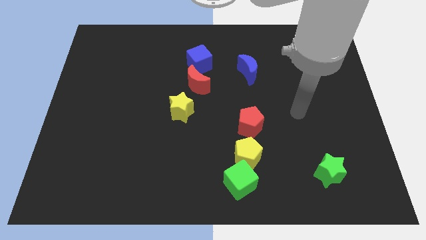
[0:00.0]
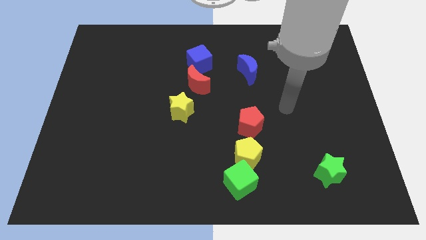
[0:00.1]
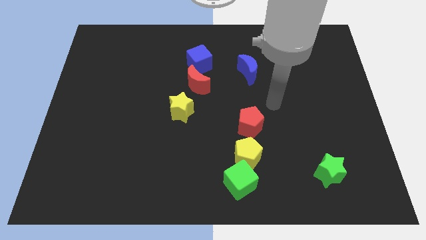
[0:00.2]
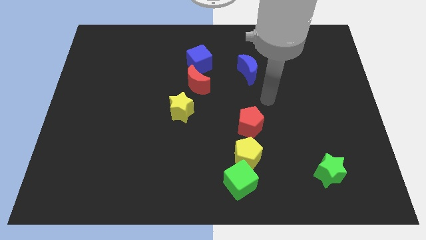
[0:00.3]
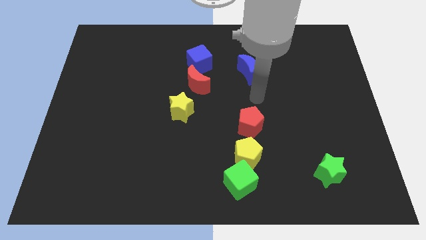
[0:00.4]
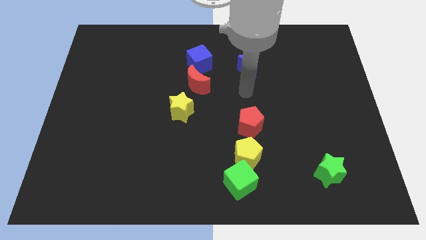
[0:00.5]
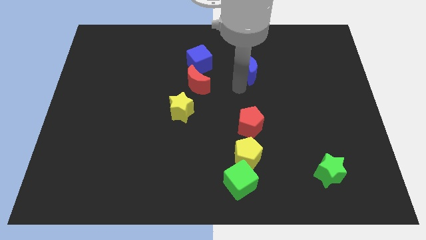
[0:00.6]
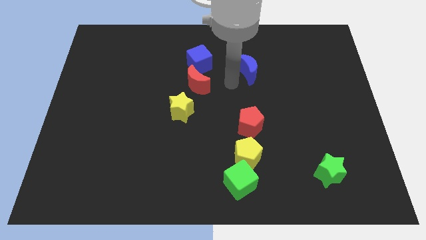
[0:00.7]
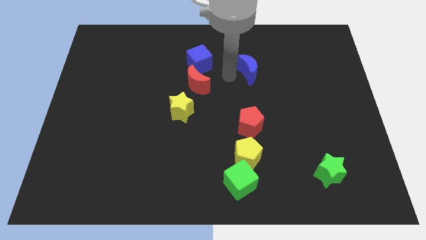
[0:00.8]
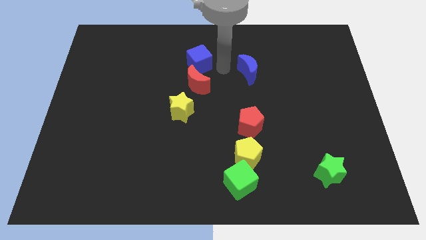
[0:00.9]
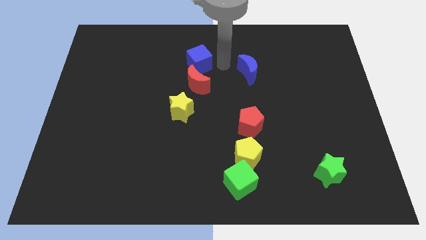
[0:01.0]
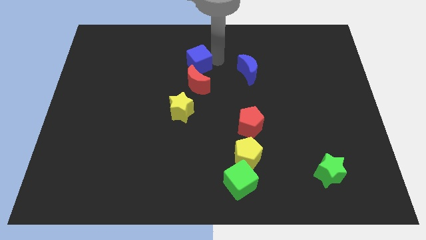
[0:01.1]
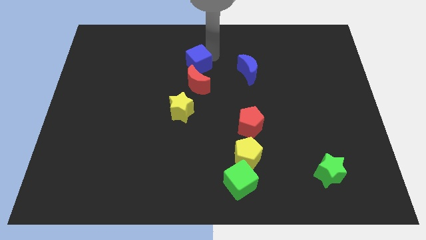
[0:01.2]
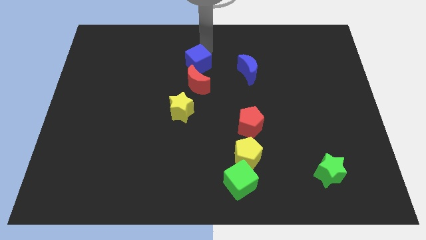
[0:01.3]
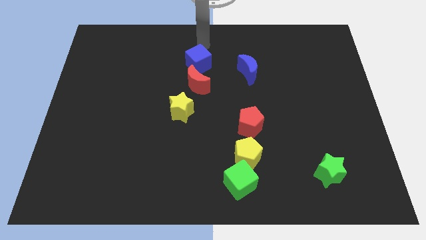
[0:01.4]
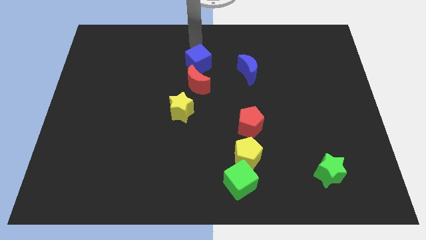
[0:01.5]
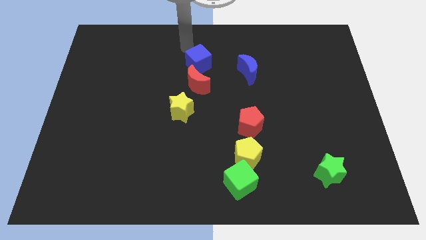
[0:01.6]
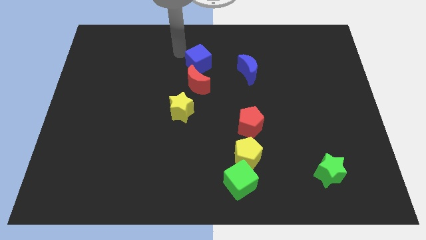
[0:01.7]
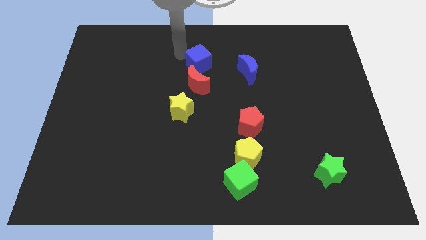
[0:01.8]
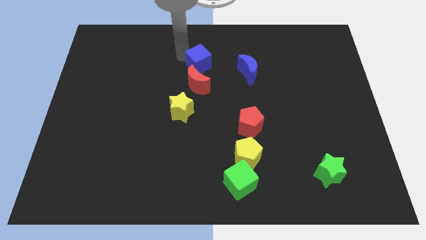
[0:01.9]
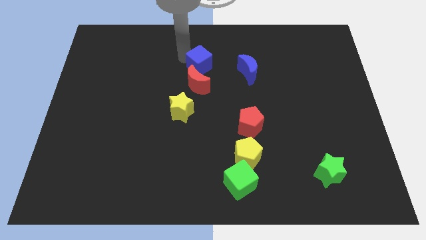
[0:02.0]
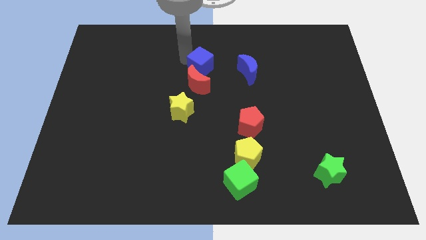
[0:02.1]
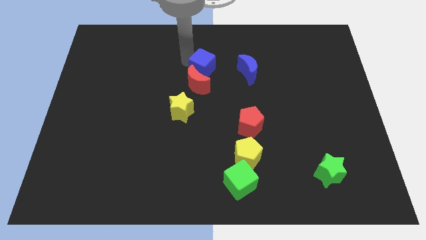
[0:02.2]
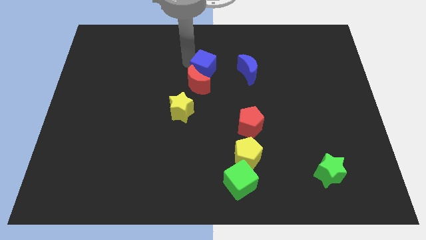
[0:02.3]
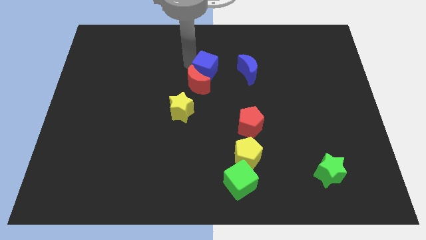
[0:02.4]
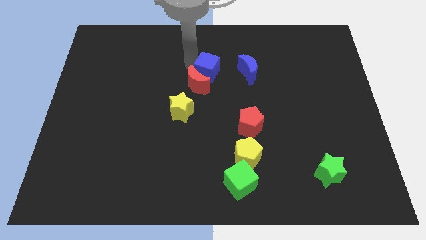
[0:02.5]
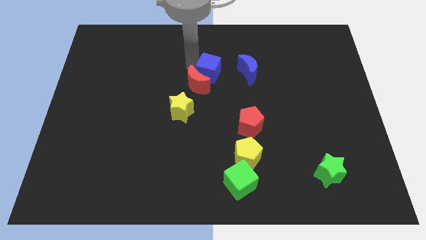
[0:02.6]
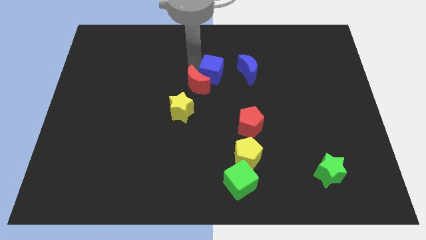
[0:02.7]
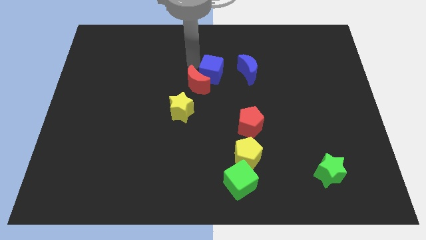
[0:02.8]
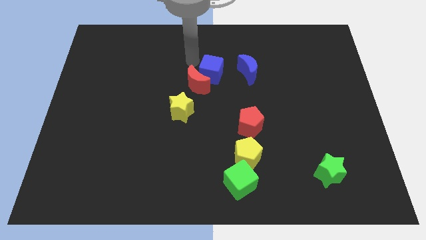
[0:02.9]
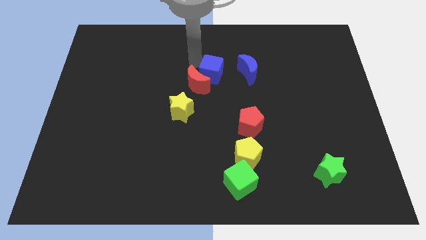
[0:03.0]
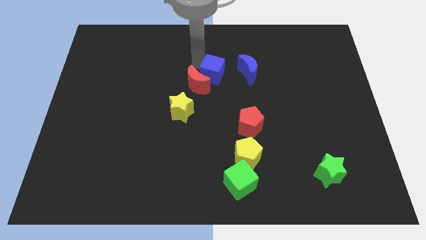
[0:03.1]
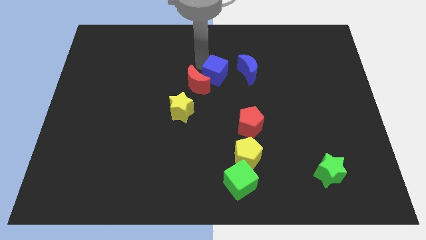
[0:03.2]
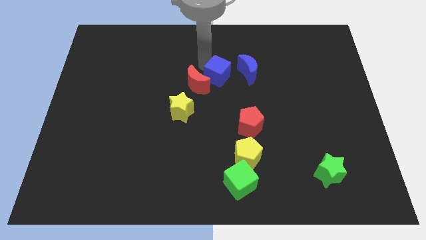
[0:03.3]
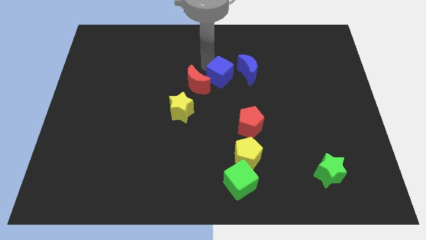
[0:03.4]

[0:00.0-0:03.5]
slide the blue cube diagonally down and to the right a little bit

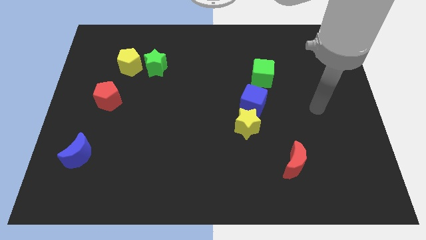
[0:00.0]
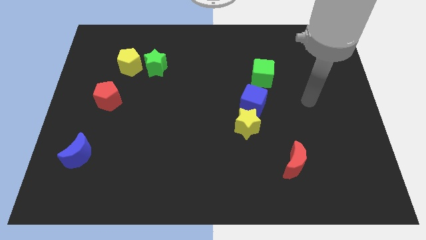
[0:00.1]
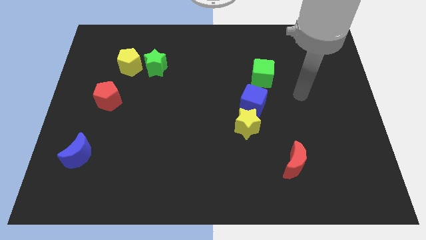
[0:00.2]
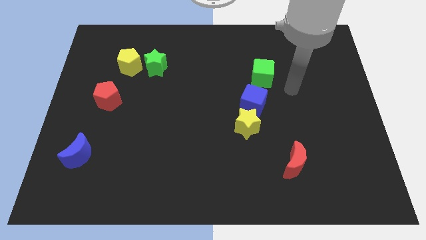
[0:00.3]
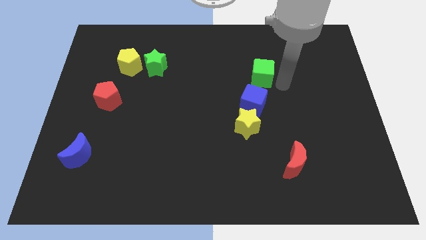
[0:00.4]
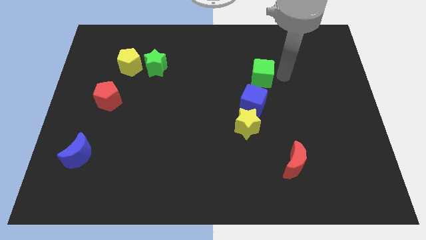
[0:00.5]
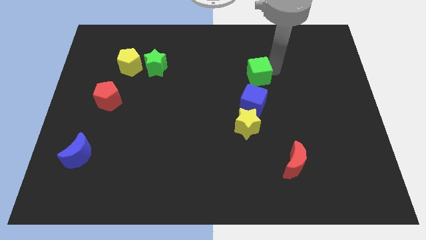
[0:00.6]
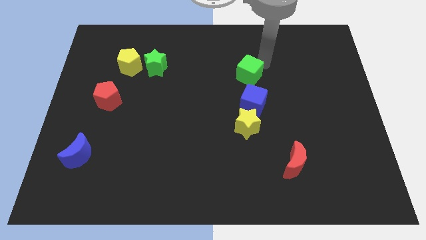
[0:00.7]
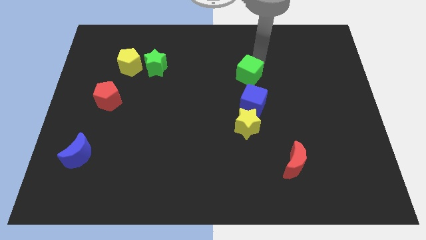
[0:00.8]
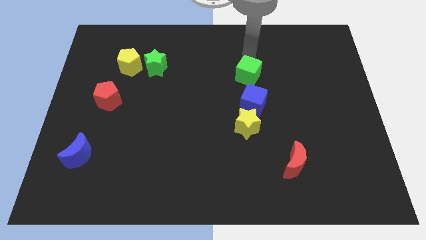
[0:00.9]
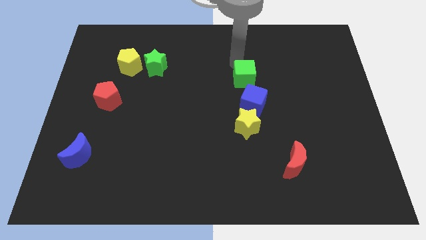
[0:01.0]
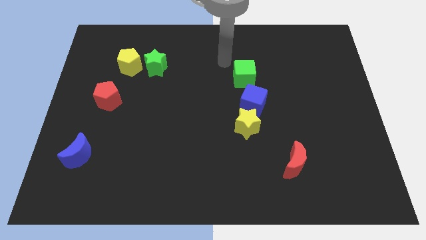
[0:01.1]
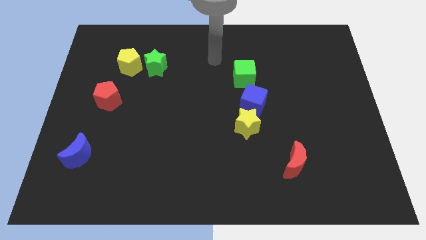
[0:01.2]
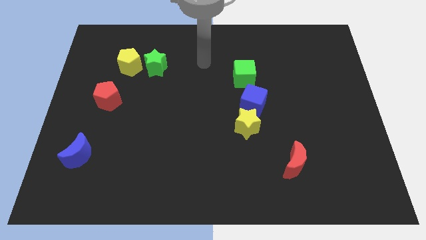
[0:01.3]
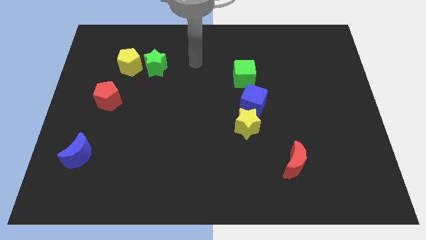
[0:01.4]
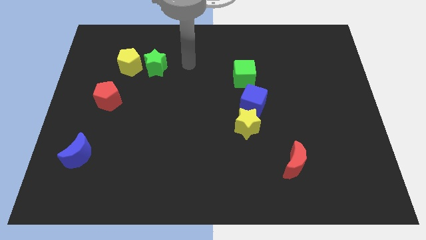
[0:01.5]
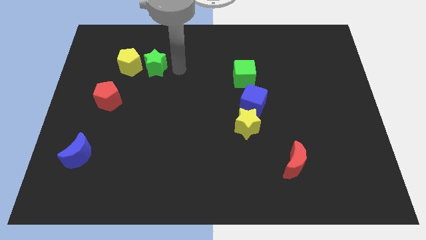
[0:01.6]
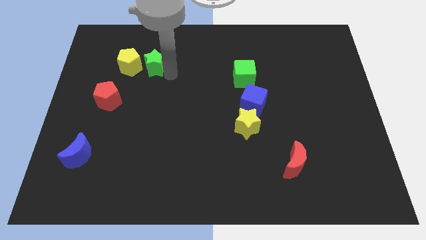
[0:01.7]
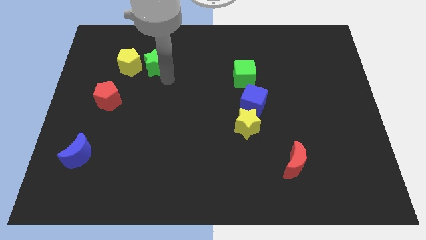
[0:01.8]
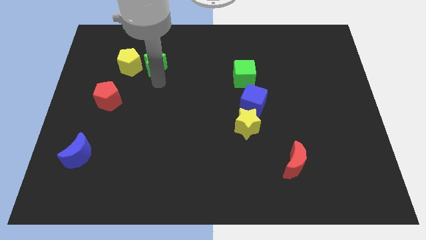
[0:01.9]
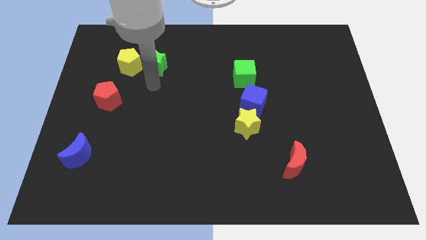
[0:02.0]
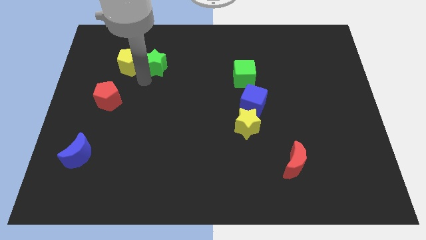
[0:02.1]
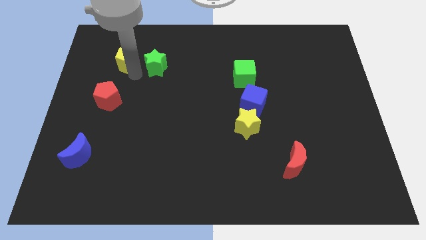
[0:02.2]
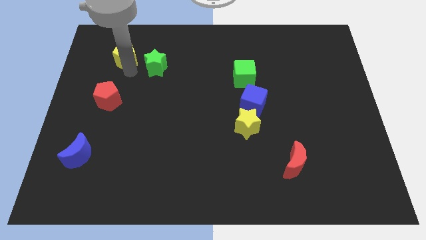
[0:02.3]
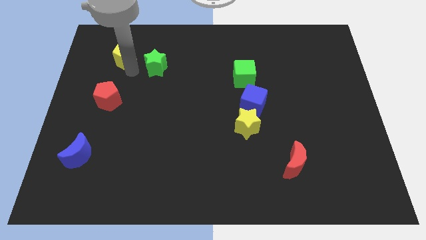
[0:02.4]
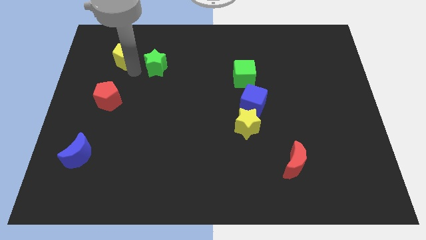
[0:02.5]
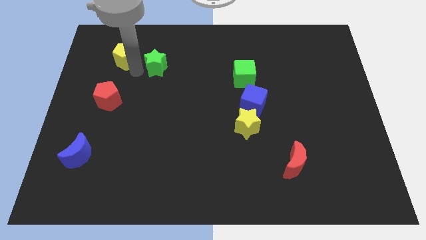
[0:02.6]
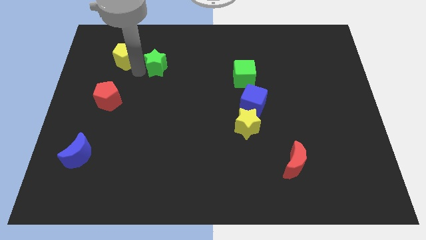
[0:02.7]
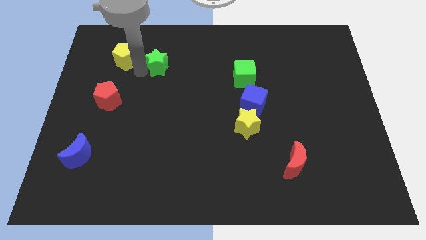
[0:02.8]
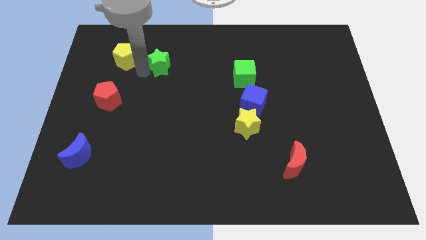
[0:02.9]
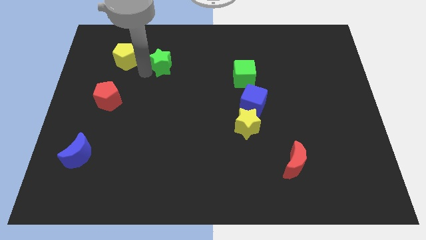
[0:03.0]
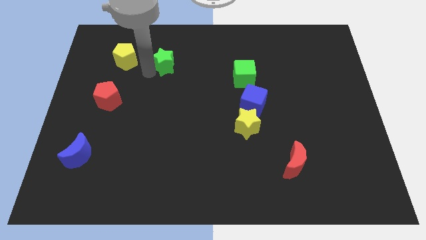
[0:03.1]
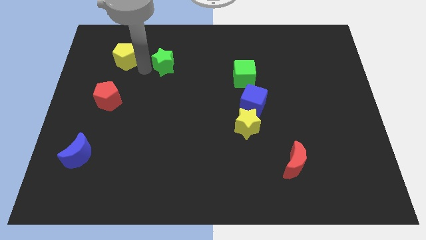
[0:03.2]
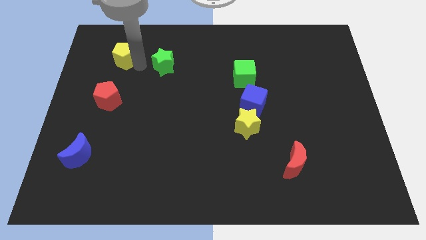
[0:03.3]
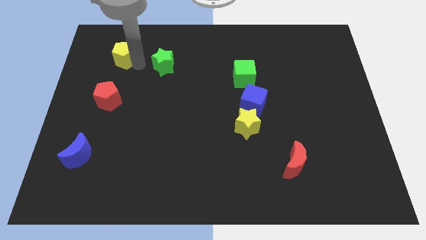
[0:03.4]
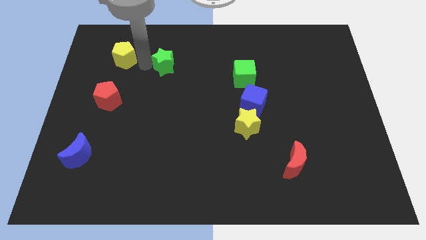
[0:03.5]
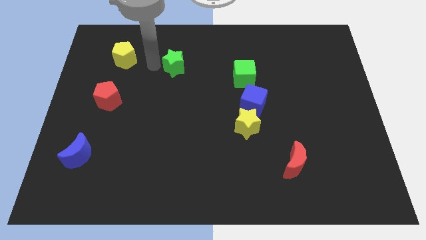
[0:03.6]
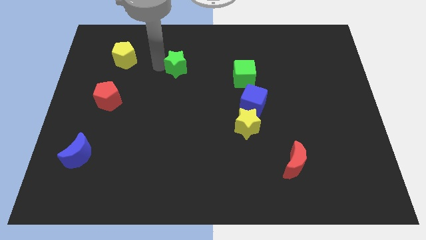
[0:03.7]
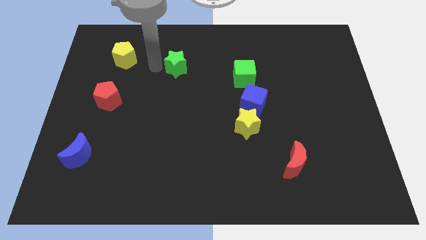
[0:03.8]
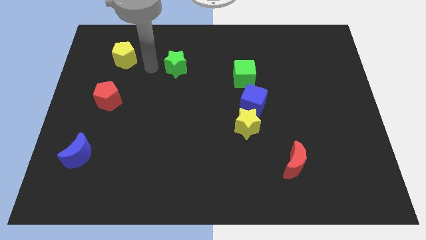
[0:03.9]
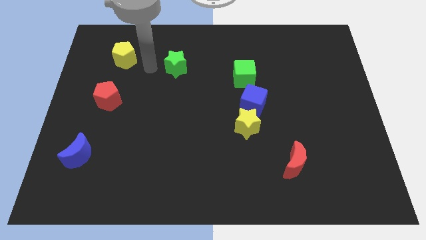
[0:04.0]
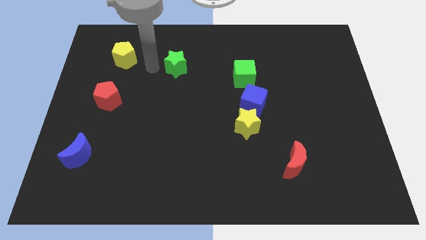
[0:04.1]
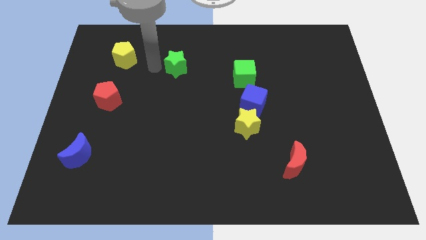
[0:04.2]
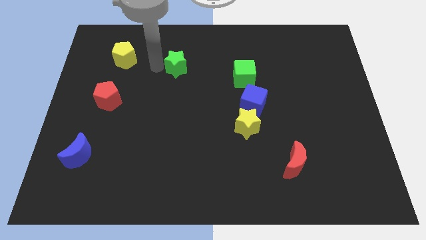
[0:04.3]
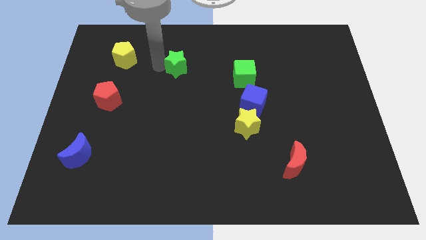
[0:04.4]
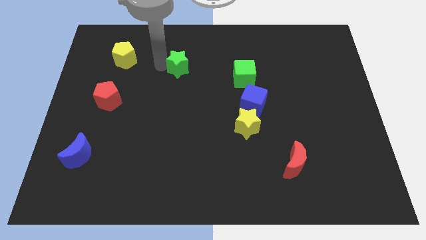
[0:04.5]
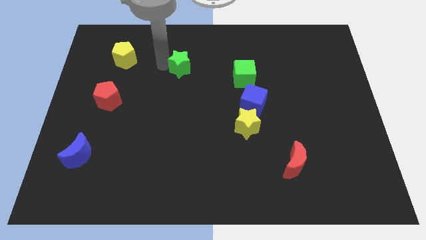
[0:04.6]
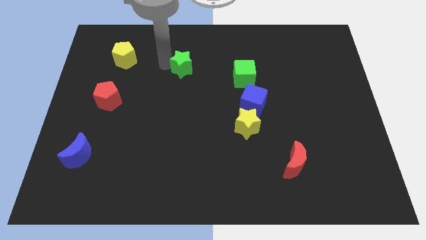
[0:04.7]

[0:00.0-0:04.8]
slightly move the green star to the right
